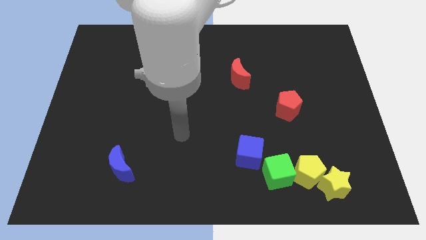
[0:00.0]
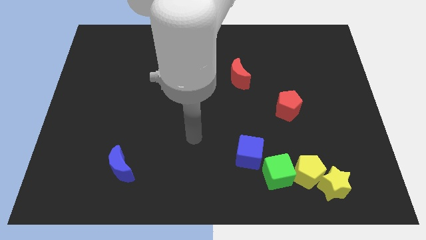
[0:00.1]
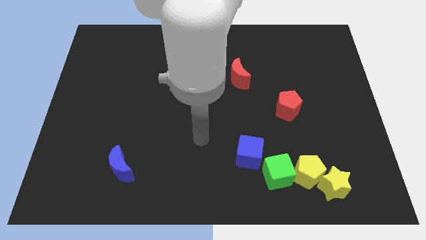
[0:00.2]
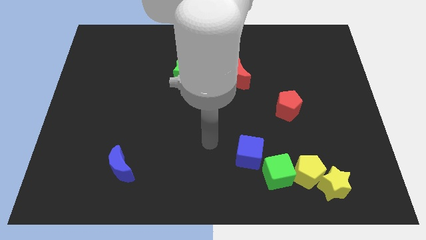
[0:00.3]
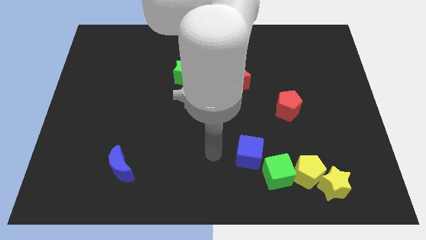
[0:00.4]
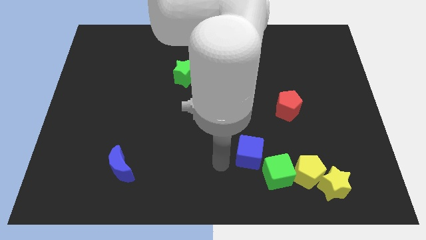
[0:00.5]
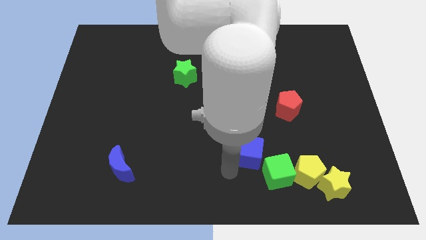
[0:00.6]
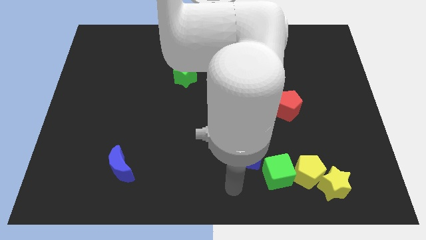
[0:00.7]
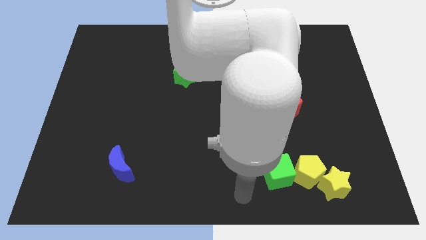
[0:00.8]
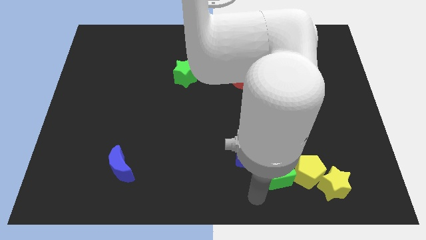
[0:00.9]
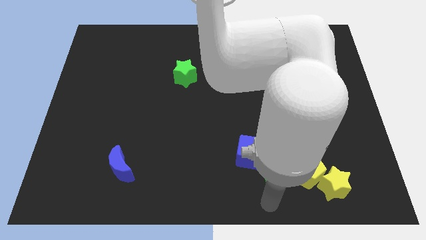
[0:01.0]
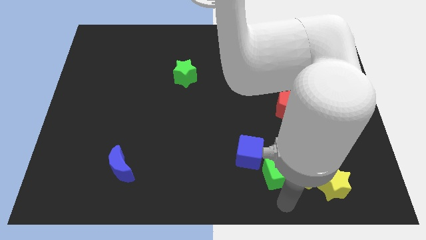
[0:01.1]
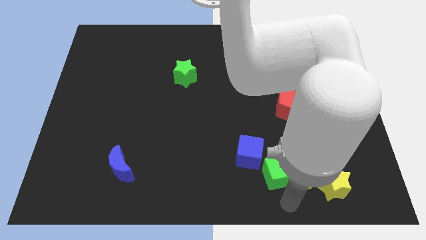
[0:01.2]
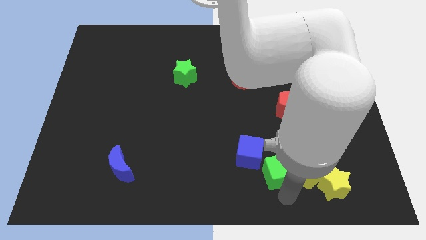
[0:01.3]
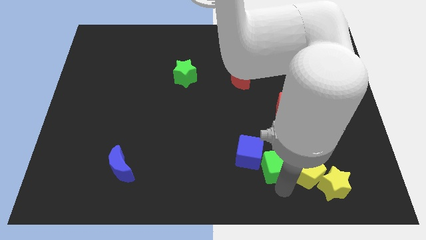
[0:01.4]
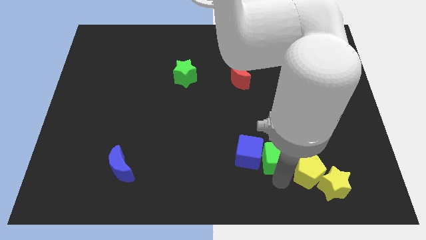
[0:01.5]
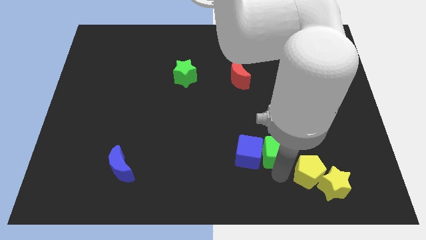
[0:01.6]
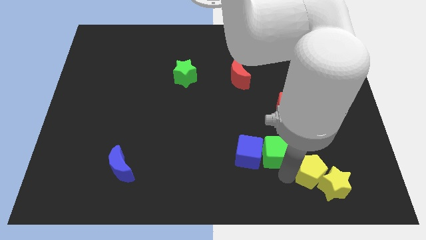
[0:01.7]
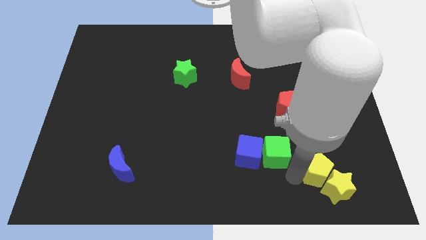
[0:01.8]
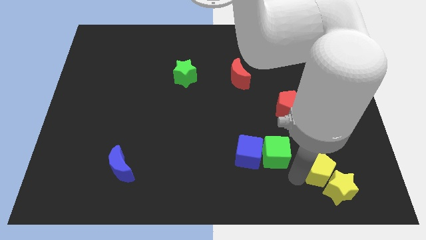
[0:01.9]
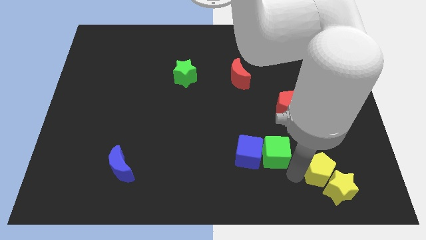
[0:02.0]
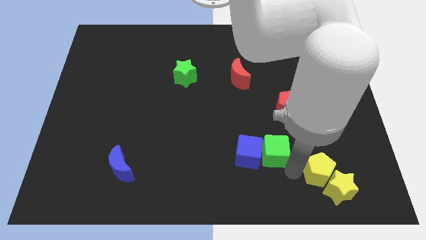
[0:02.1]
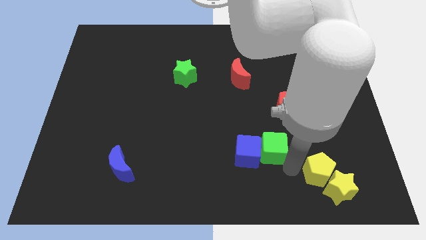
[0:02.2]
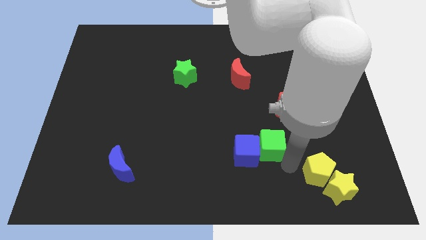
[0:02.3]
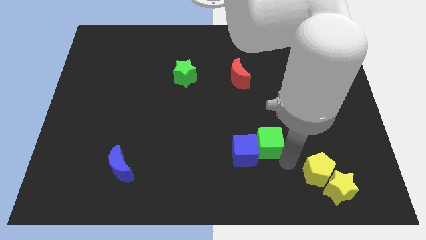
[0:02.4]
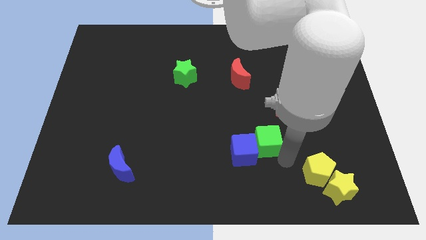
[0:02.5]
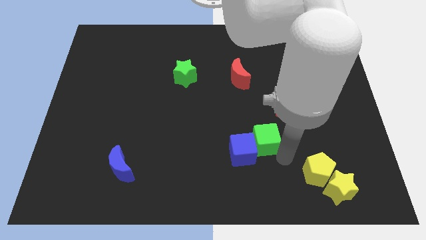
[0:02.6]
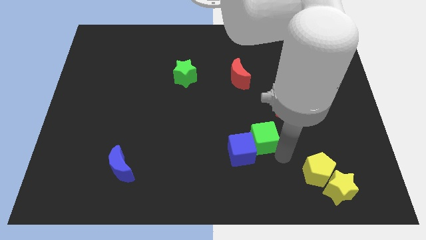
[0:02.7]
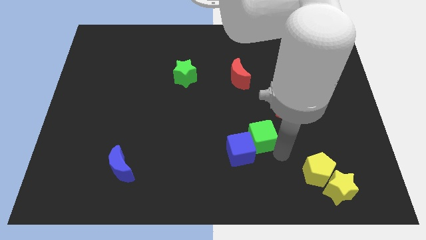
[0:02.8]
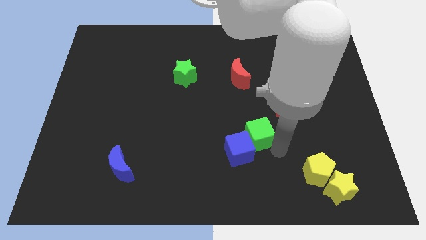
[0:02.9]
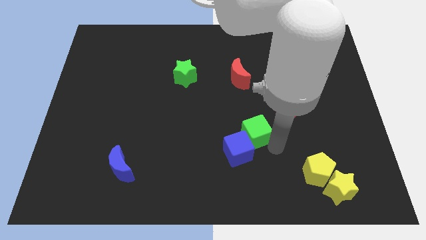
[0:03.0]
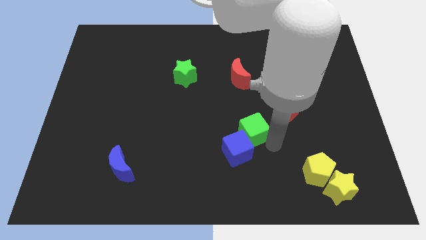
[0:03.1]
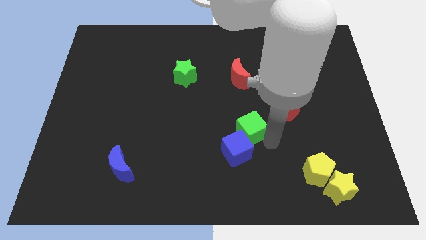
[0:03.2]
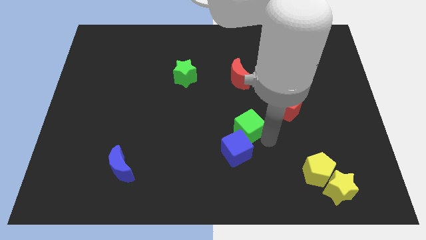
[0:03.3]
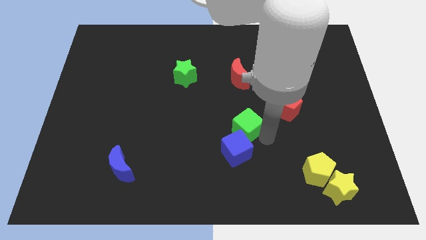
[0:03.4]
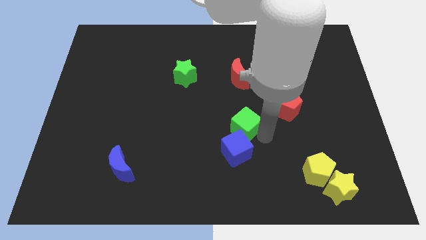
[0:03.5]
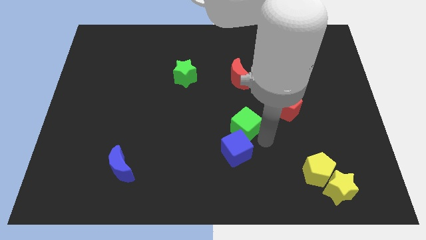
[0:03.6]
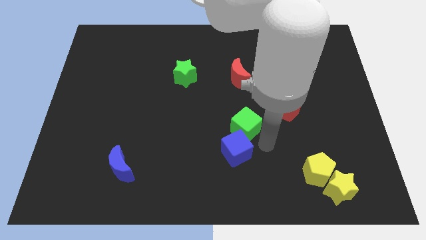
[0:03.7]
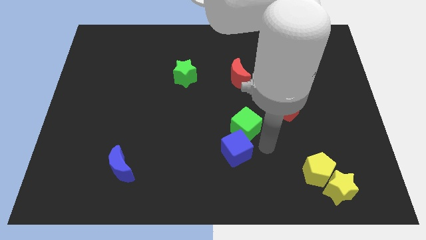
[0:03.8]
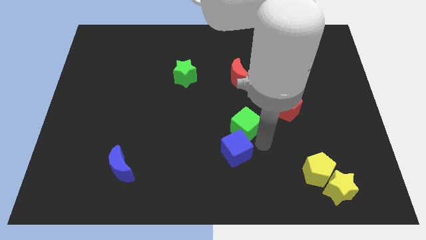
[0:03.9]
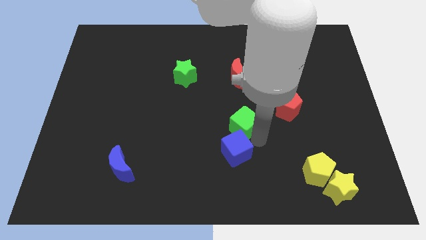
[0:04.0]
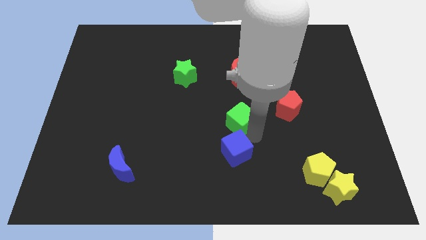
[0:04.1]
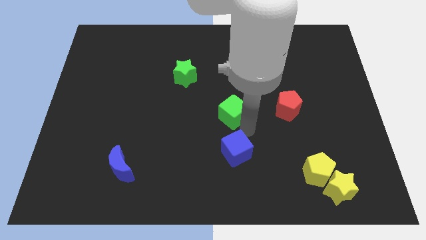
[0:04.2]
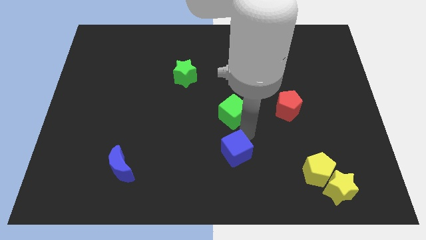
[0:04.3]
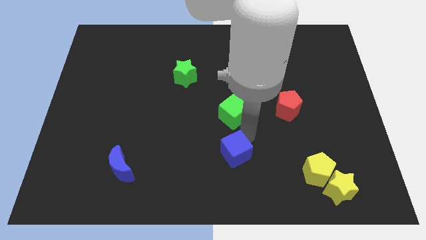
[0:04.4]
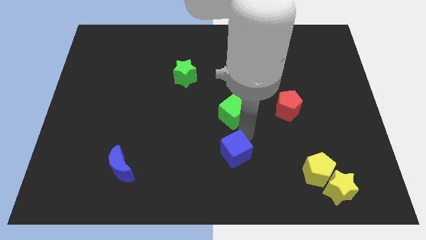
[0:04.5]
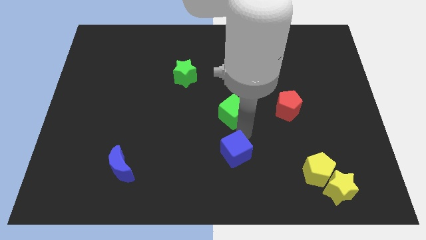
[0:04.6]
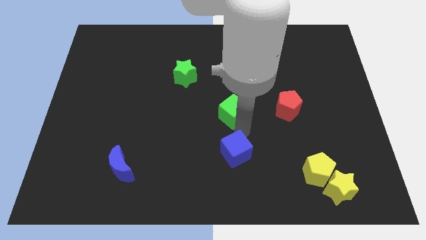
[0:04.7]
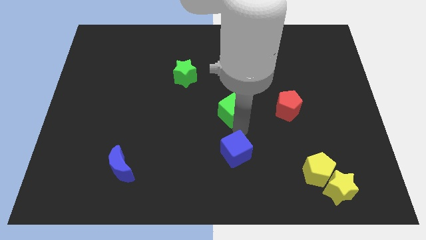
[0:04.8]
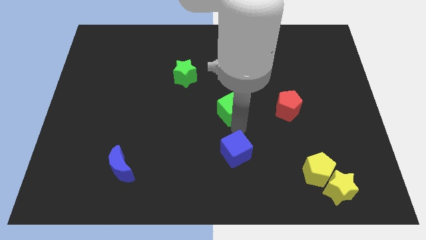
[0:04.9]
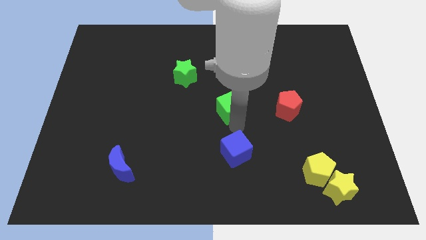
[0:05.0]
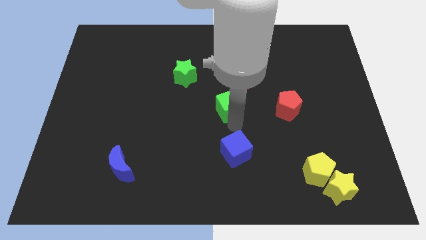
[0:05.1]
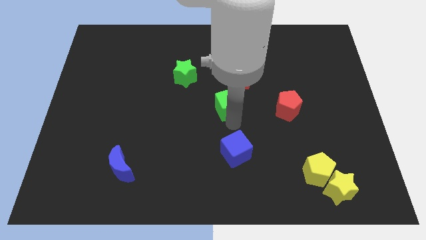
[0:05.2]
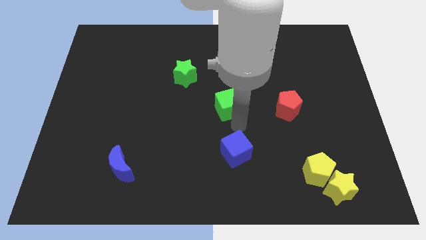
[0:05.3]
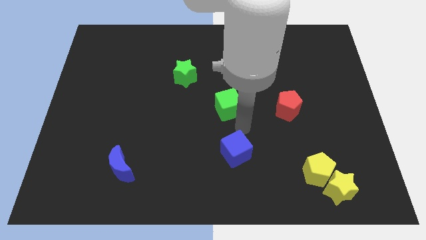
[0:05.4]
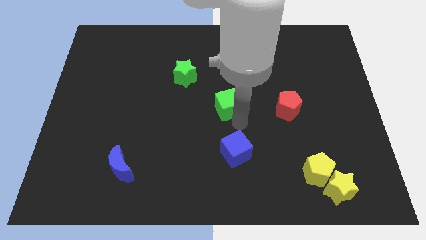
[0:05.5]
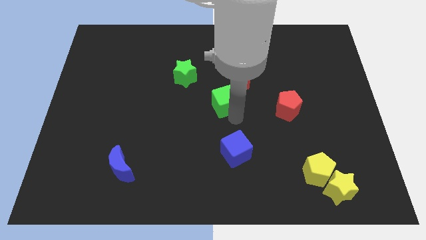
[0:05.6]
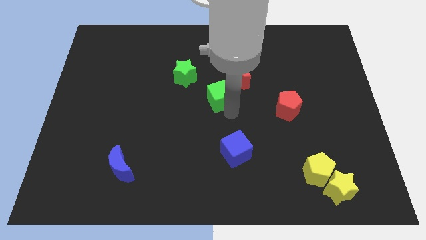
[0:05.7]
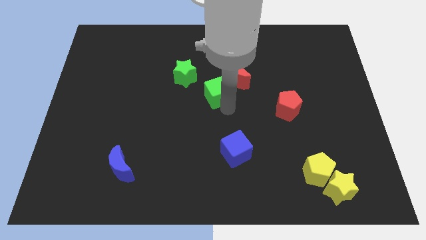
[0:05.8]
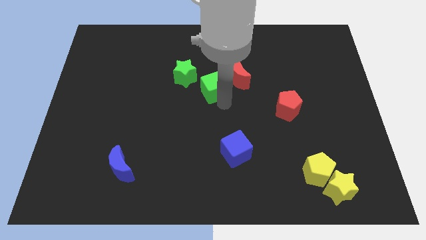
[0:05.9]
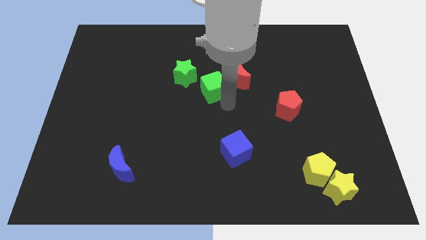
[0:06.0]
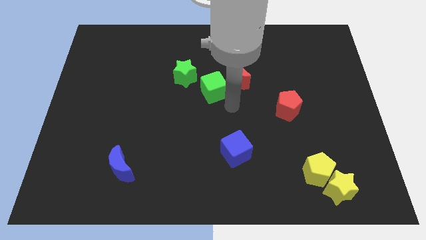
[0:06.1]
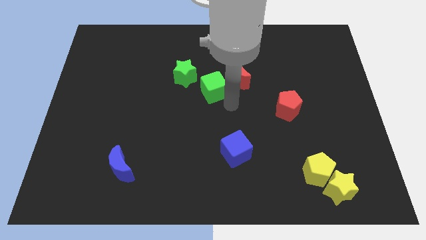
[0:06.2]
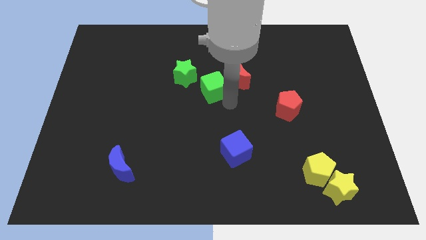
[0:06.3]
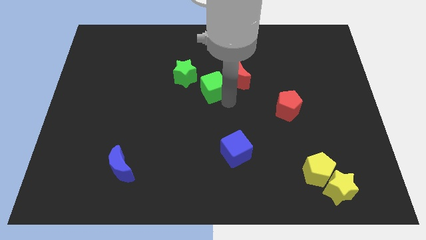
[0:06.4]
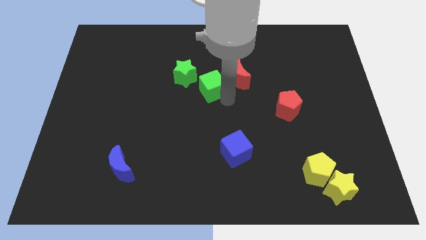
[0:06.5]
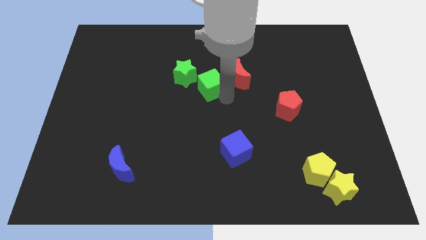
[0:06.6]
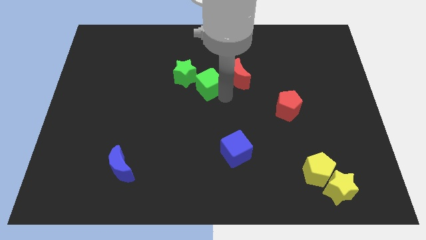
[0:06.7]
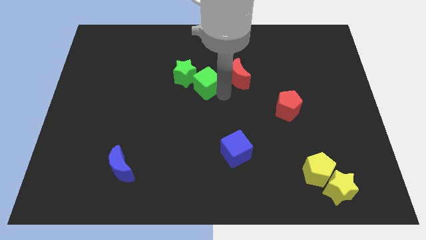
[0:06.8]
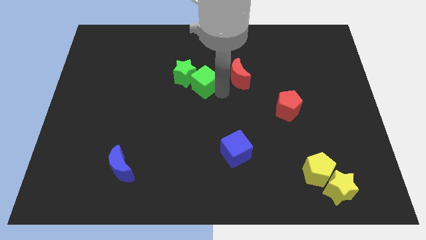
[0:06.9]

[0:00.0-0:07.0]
push the green cube next to the green star
